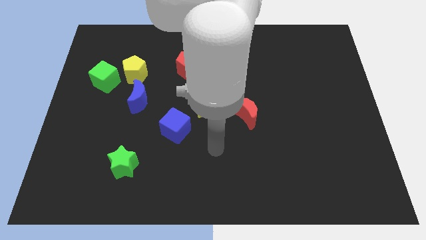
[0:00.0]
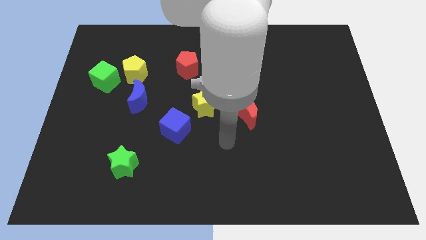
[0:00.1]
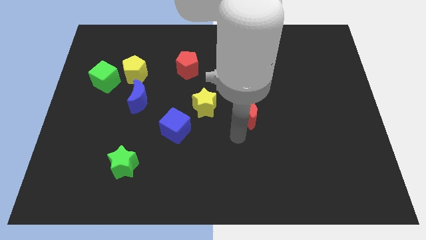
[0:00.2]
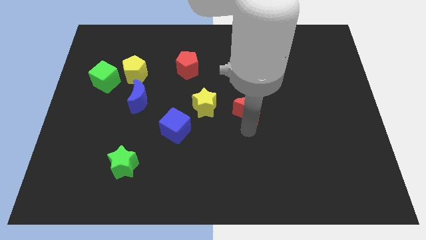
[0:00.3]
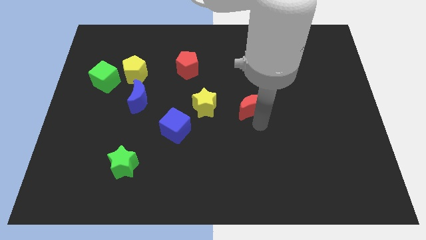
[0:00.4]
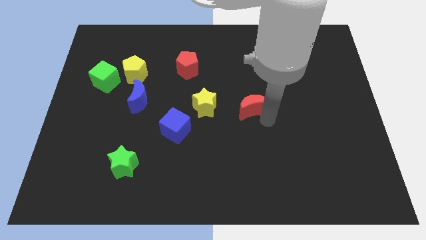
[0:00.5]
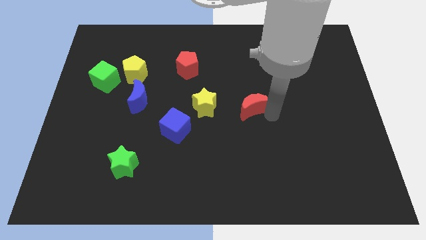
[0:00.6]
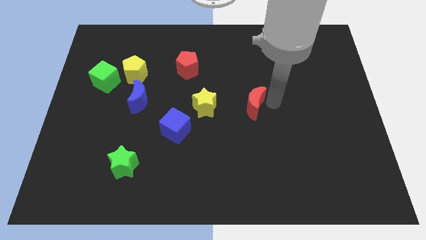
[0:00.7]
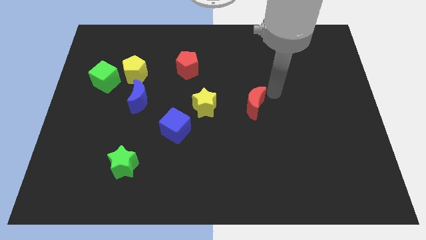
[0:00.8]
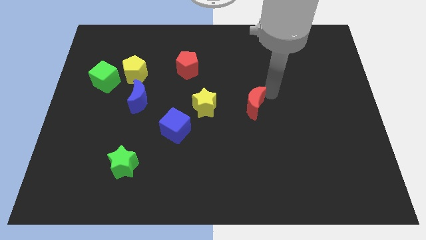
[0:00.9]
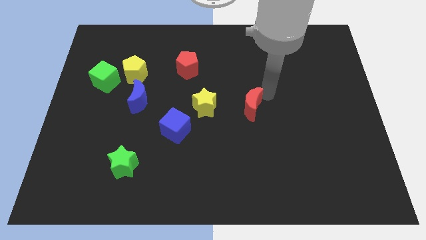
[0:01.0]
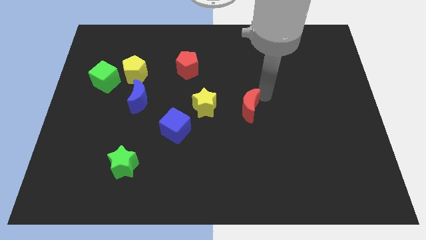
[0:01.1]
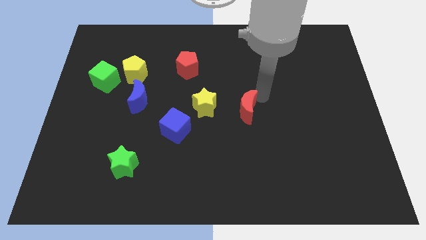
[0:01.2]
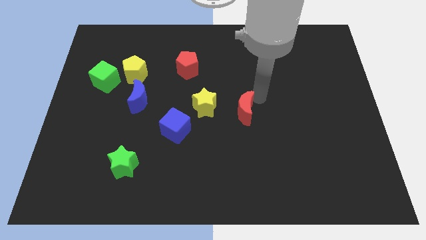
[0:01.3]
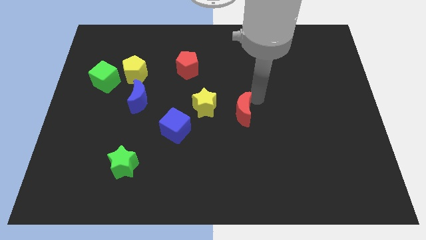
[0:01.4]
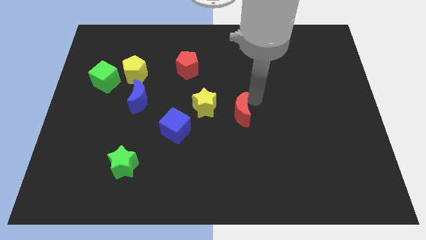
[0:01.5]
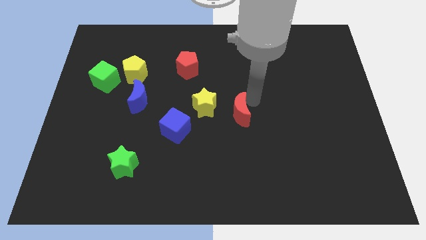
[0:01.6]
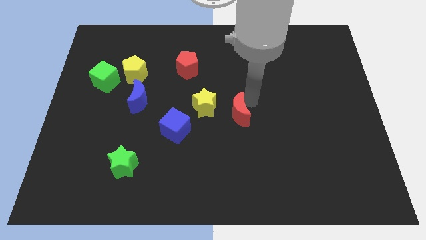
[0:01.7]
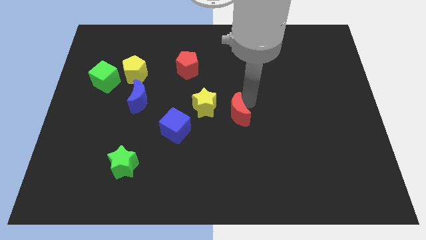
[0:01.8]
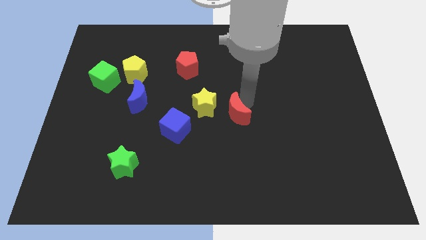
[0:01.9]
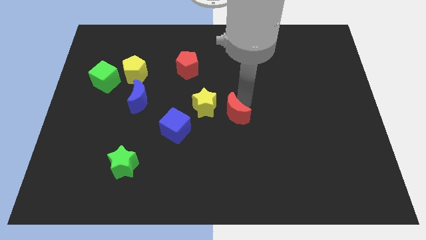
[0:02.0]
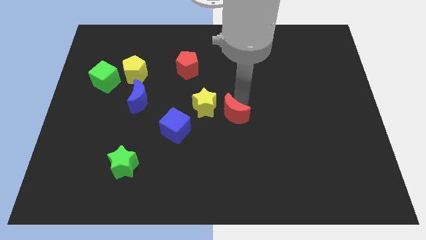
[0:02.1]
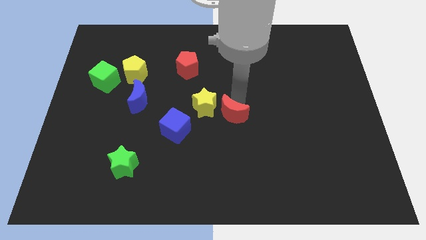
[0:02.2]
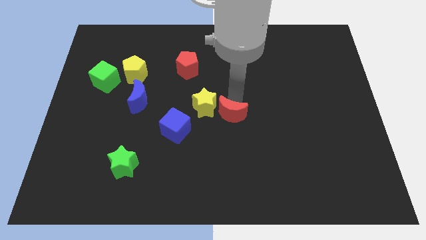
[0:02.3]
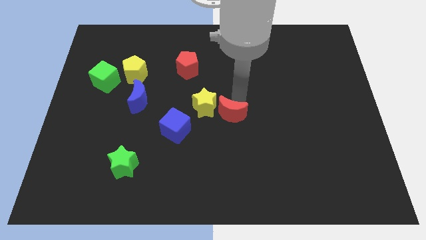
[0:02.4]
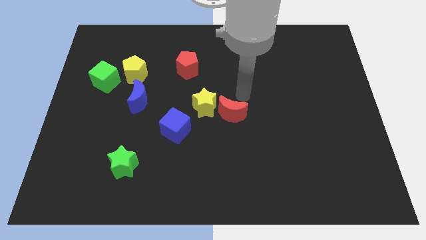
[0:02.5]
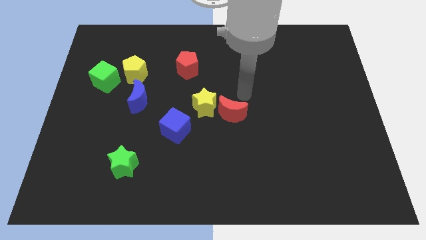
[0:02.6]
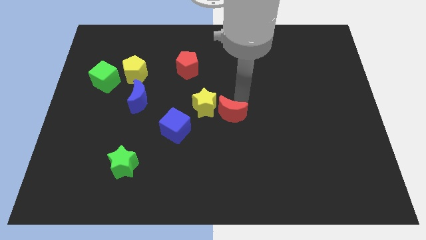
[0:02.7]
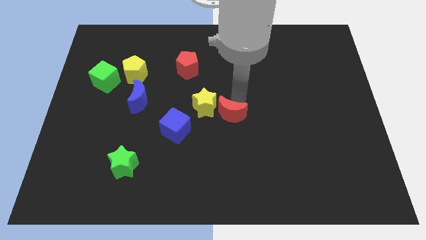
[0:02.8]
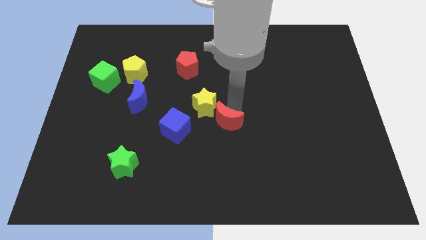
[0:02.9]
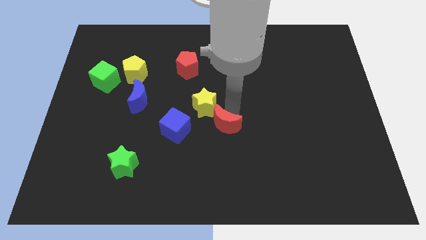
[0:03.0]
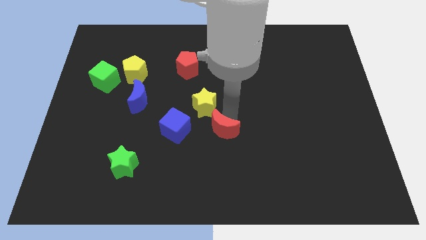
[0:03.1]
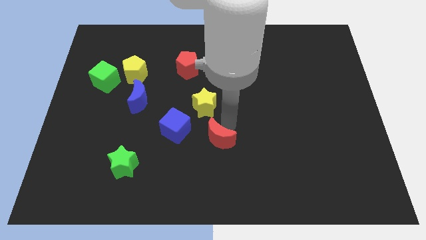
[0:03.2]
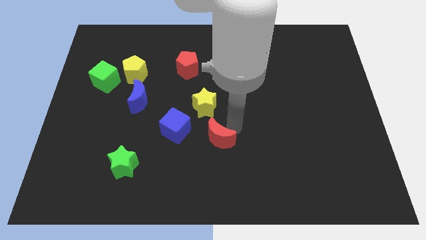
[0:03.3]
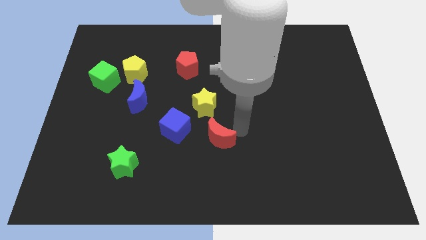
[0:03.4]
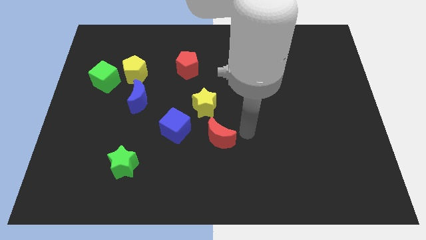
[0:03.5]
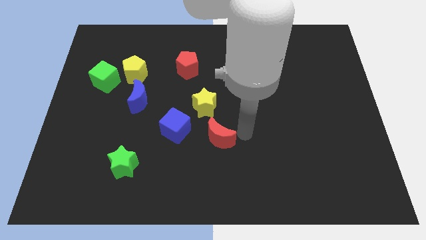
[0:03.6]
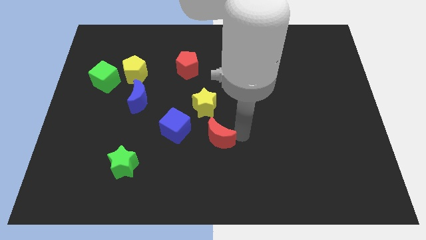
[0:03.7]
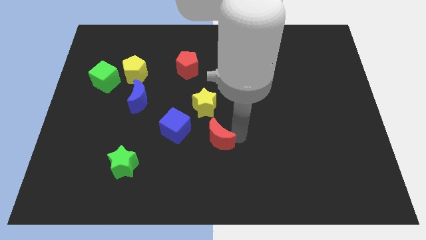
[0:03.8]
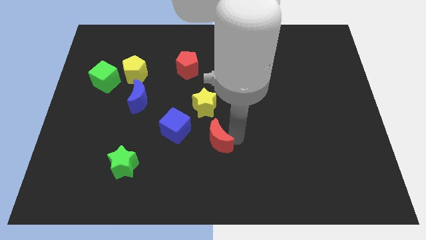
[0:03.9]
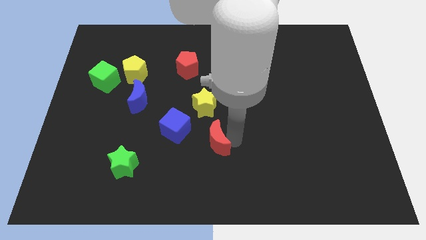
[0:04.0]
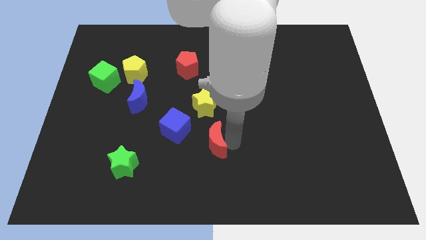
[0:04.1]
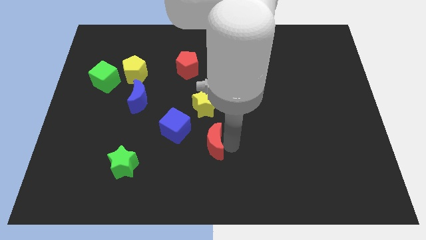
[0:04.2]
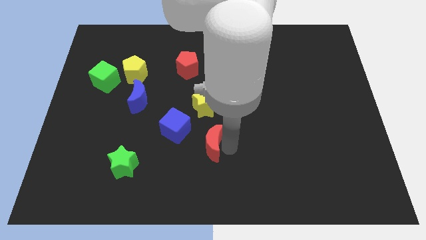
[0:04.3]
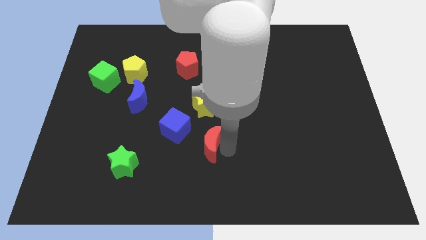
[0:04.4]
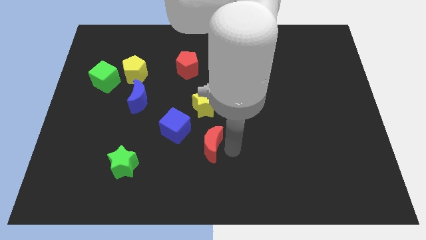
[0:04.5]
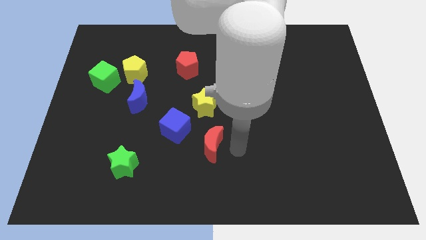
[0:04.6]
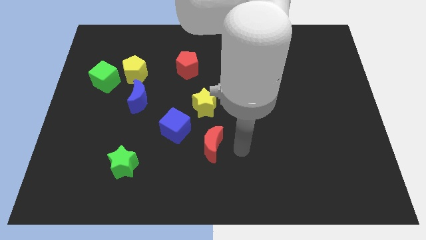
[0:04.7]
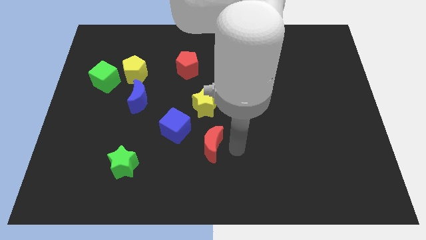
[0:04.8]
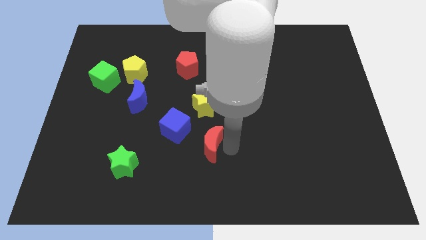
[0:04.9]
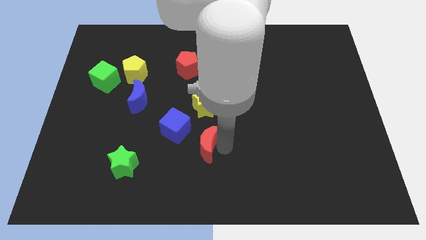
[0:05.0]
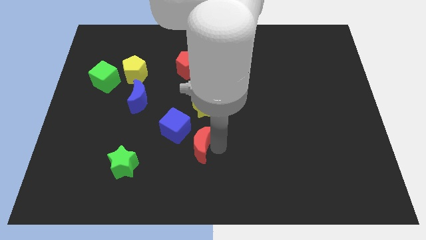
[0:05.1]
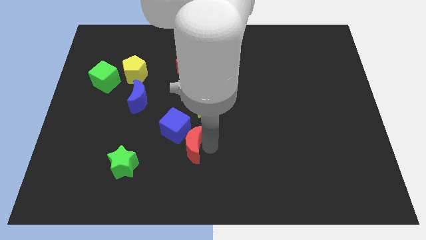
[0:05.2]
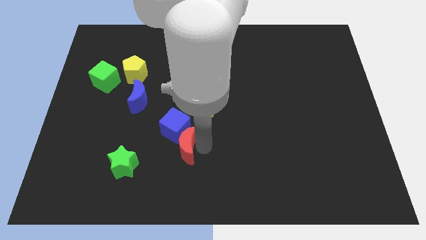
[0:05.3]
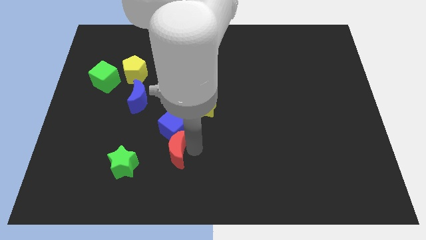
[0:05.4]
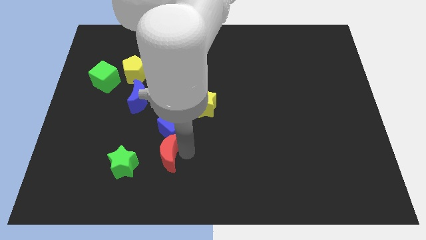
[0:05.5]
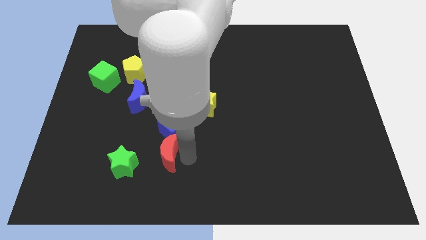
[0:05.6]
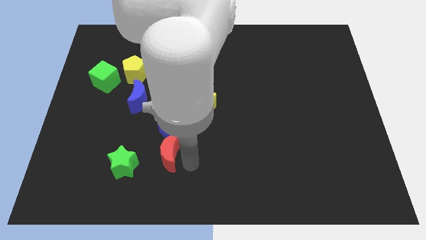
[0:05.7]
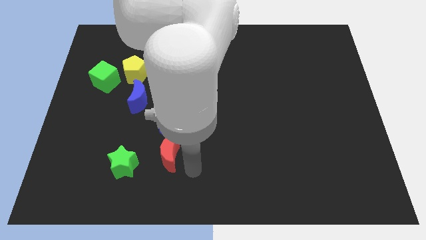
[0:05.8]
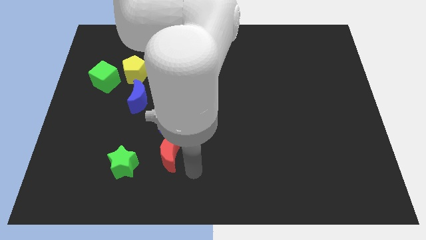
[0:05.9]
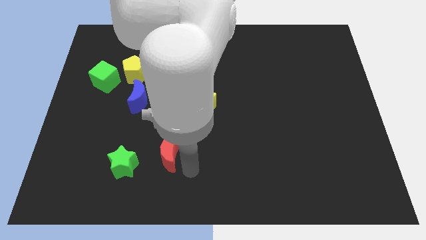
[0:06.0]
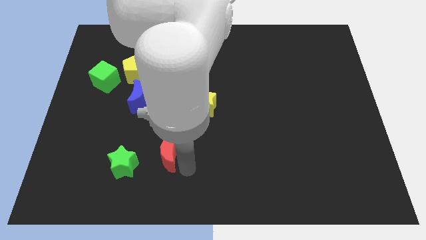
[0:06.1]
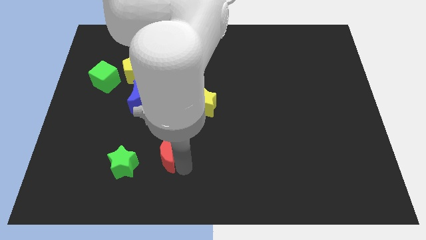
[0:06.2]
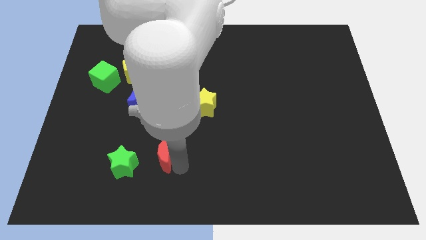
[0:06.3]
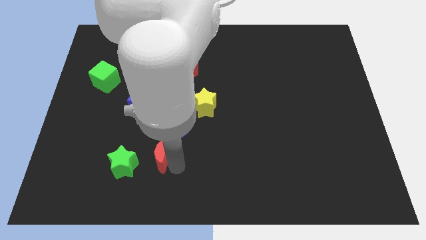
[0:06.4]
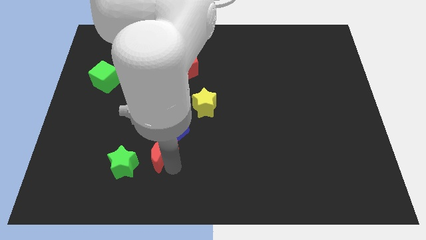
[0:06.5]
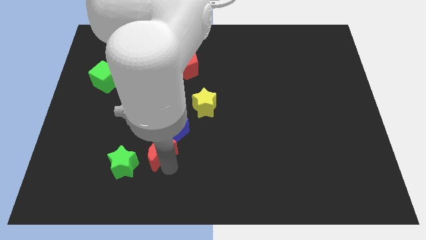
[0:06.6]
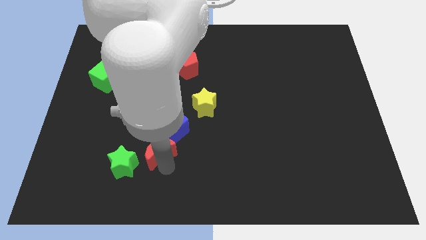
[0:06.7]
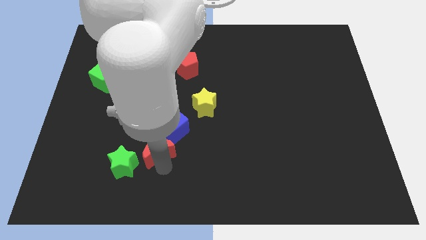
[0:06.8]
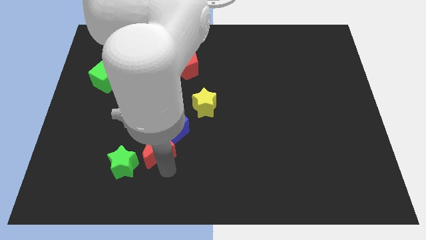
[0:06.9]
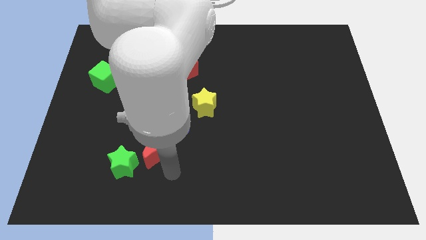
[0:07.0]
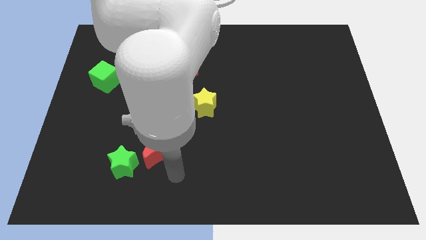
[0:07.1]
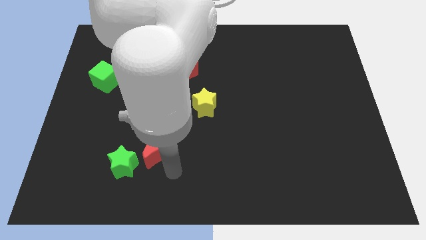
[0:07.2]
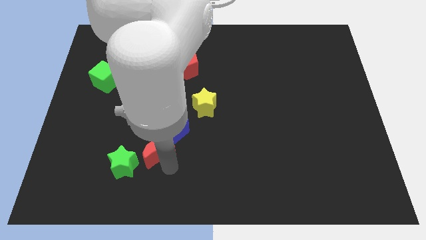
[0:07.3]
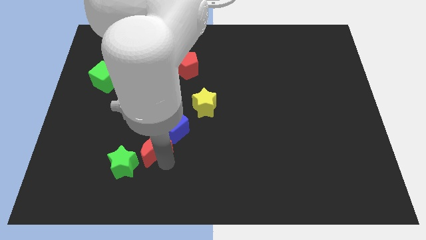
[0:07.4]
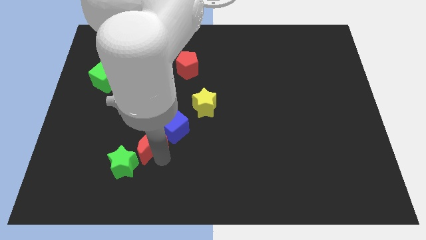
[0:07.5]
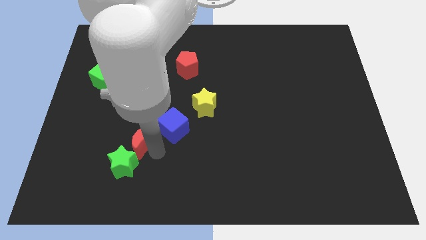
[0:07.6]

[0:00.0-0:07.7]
move the red moon left

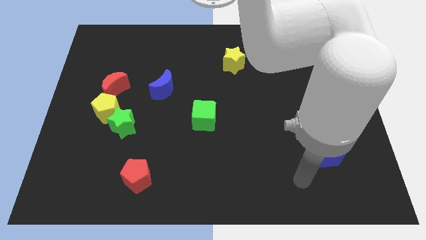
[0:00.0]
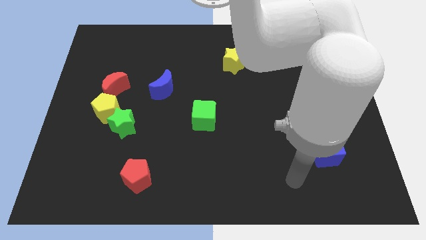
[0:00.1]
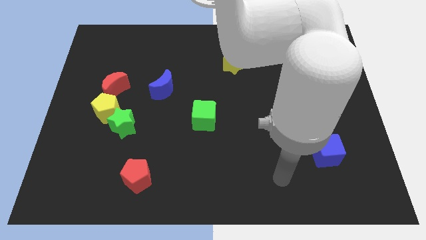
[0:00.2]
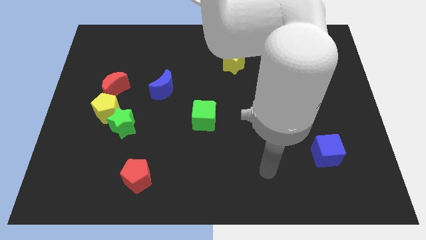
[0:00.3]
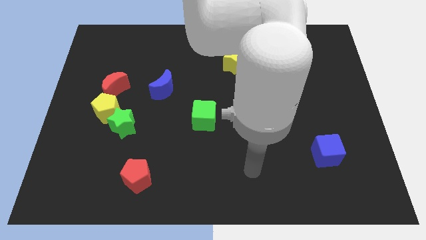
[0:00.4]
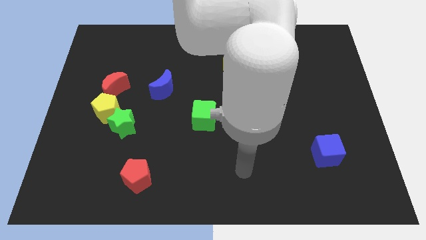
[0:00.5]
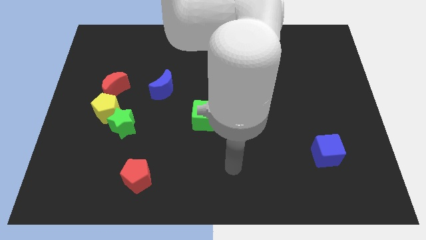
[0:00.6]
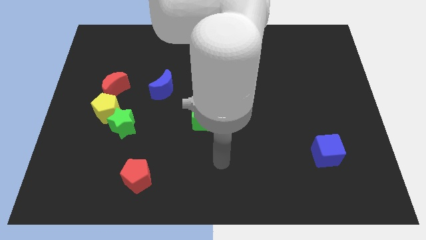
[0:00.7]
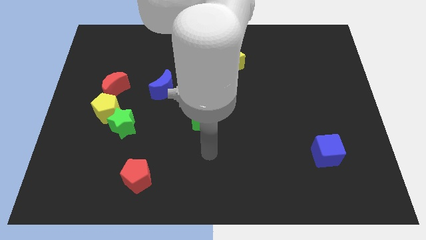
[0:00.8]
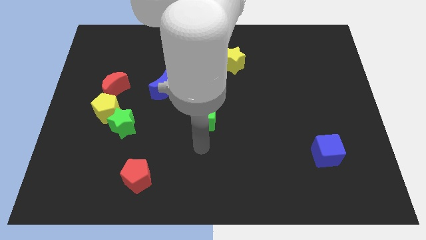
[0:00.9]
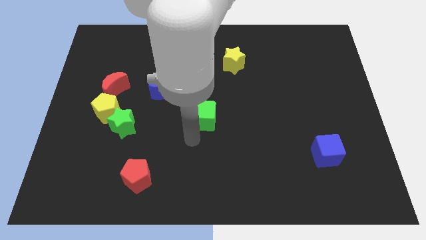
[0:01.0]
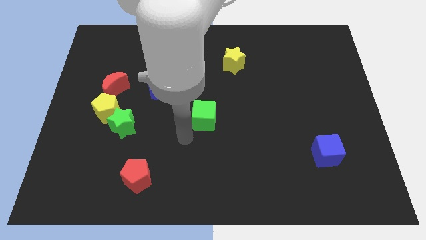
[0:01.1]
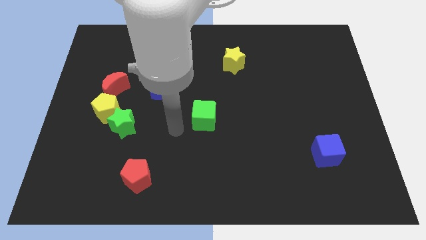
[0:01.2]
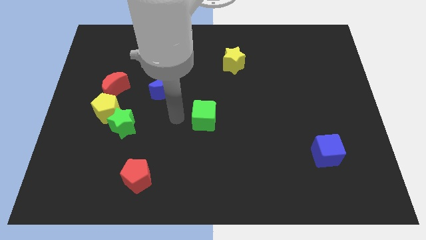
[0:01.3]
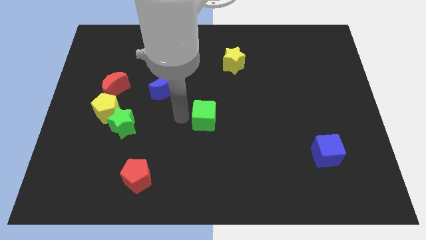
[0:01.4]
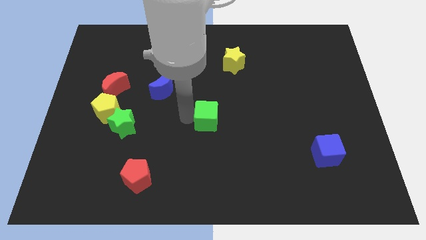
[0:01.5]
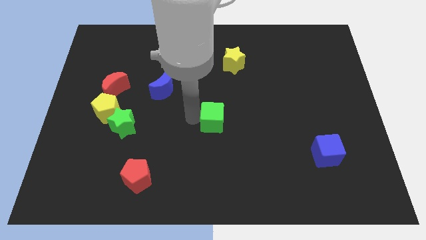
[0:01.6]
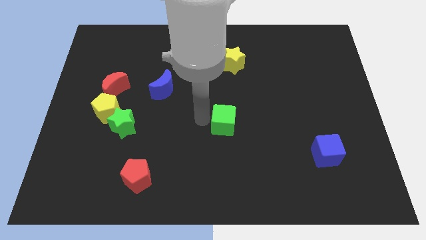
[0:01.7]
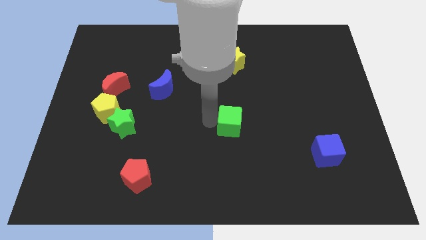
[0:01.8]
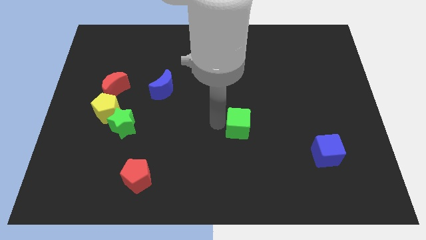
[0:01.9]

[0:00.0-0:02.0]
move the green cube a little bit right
